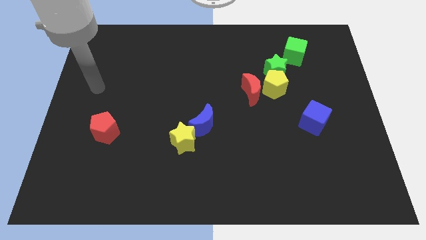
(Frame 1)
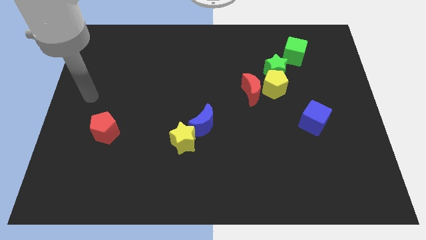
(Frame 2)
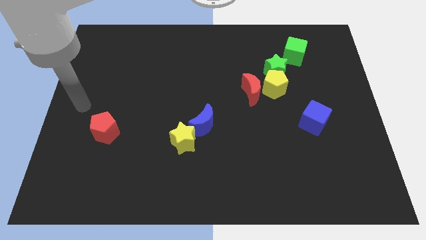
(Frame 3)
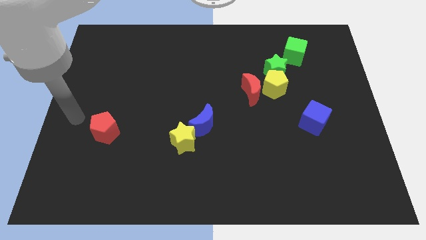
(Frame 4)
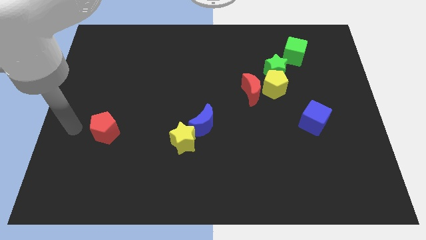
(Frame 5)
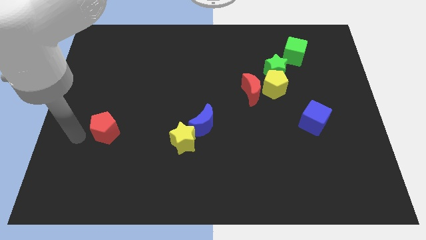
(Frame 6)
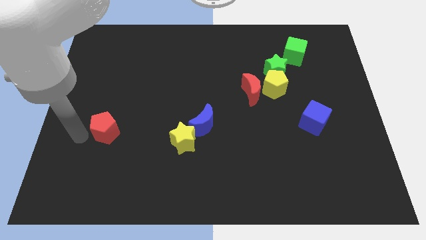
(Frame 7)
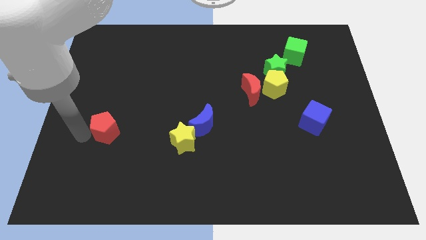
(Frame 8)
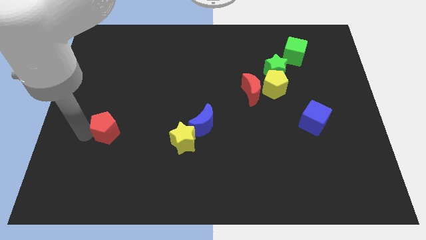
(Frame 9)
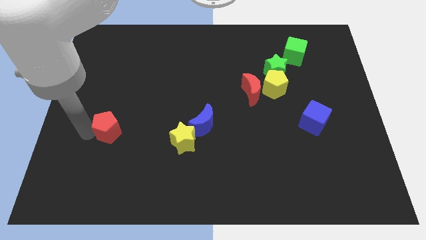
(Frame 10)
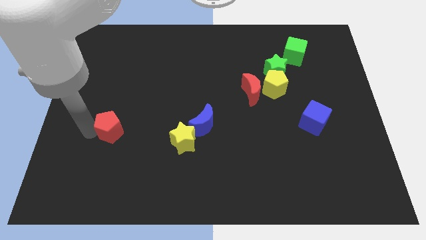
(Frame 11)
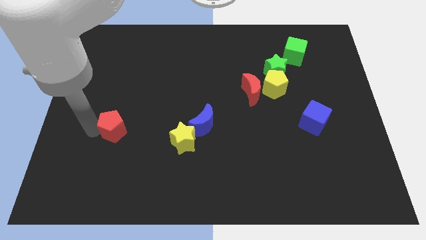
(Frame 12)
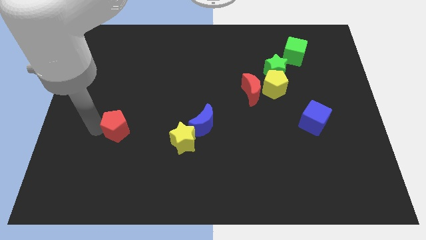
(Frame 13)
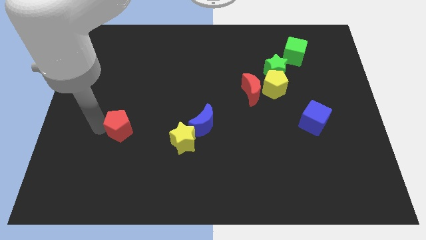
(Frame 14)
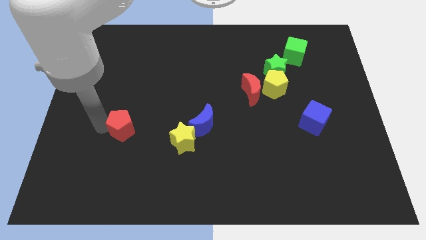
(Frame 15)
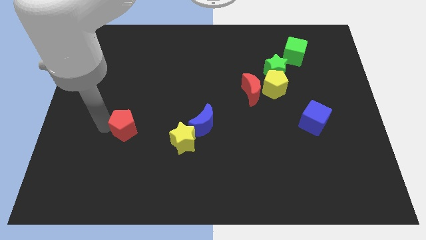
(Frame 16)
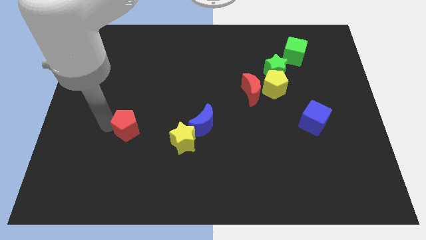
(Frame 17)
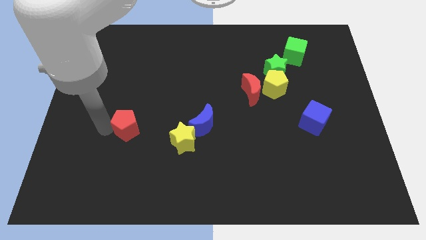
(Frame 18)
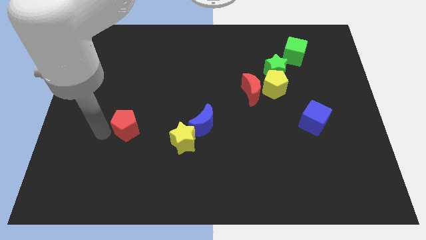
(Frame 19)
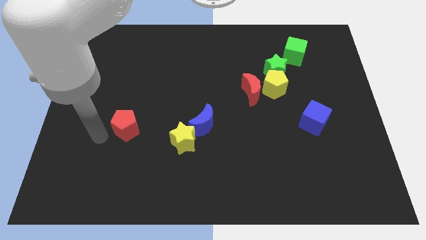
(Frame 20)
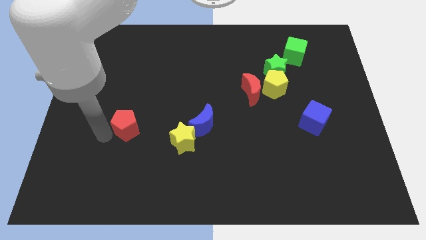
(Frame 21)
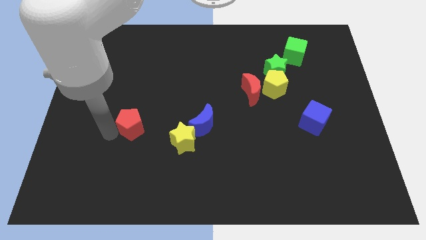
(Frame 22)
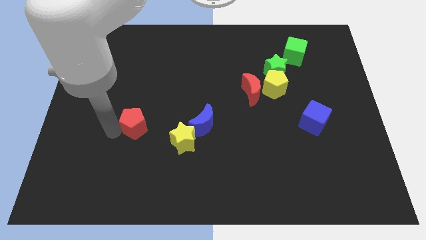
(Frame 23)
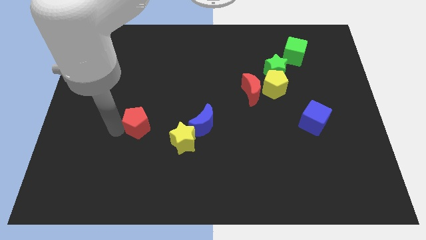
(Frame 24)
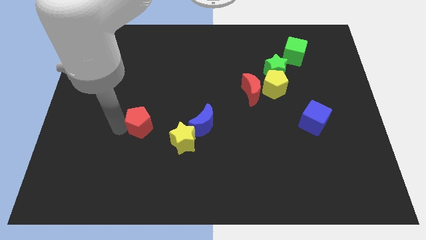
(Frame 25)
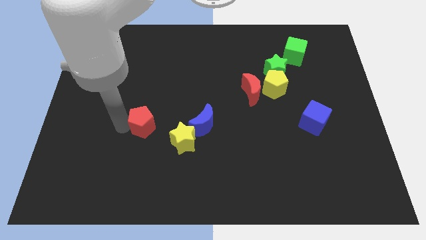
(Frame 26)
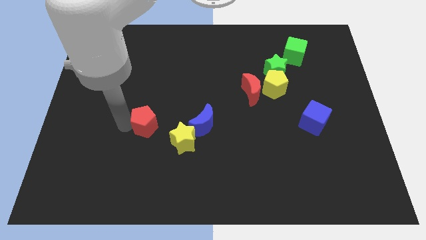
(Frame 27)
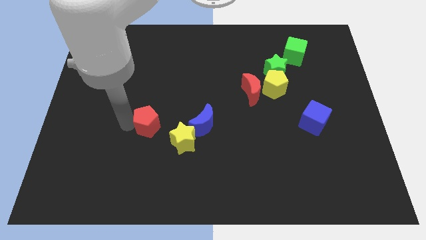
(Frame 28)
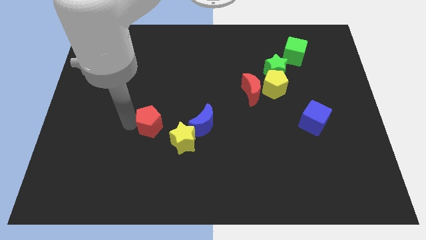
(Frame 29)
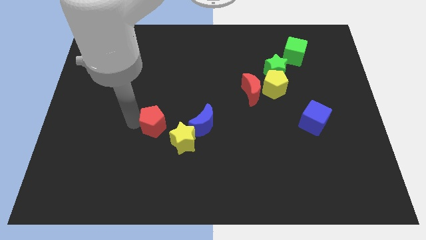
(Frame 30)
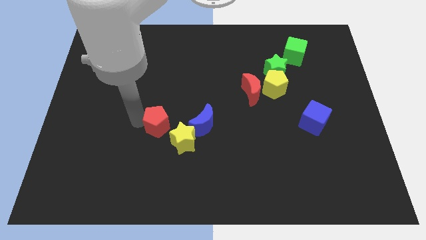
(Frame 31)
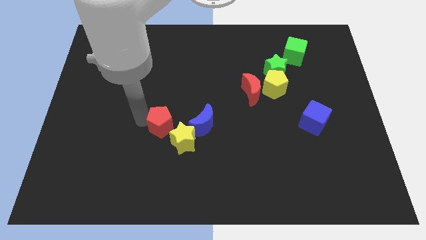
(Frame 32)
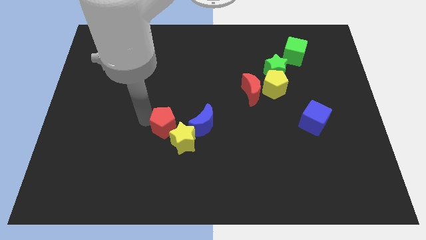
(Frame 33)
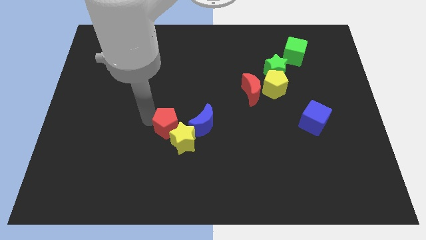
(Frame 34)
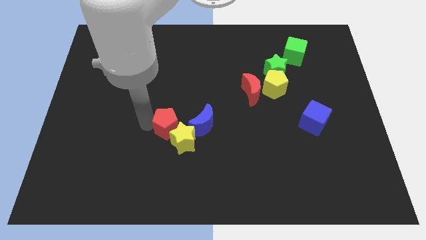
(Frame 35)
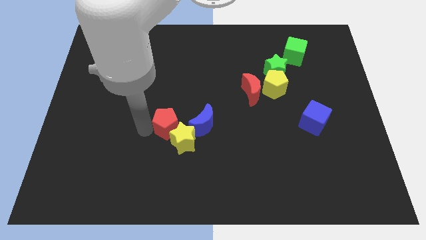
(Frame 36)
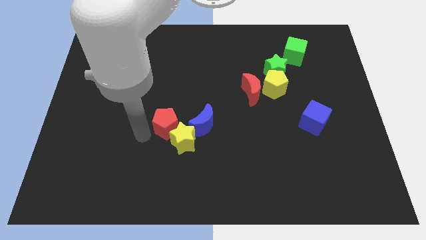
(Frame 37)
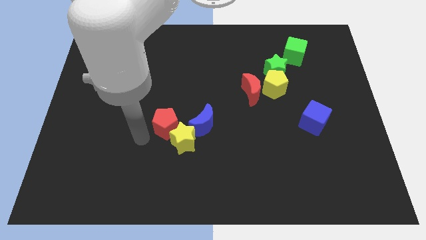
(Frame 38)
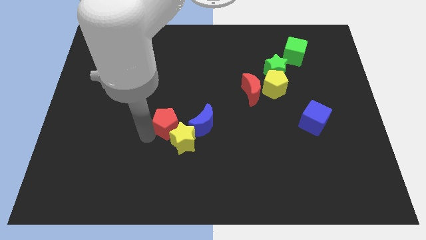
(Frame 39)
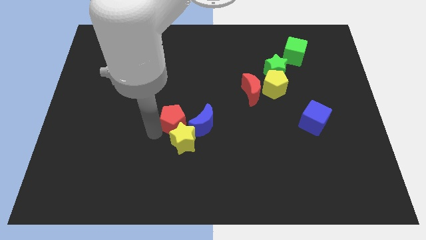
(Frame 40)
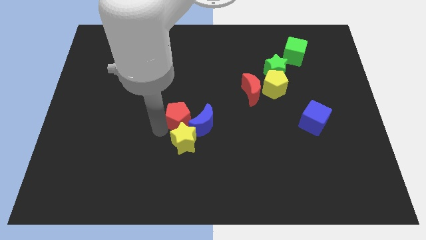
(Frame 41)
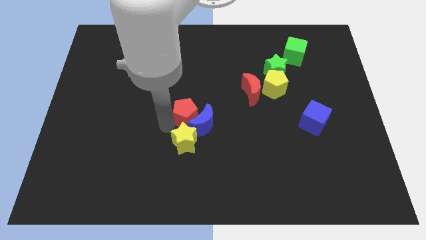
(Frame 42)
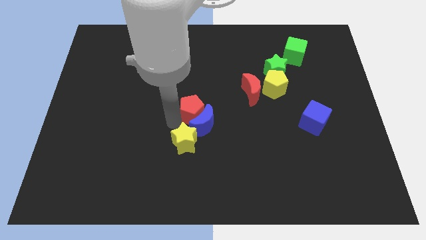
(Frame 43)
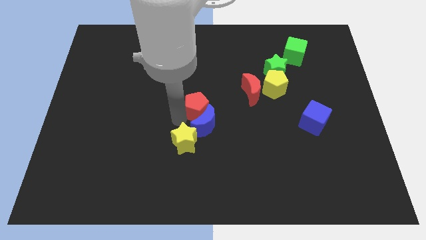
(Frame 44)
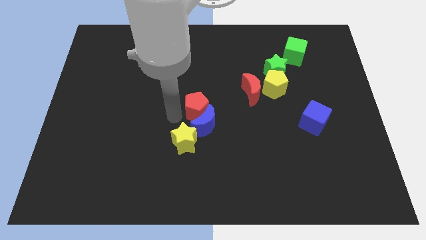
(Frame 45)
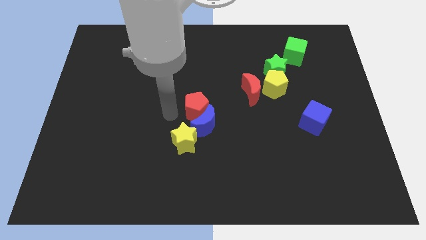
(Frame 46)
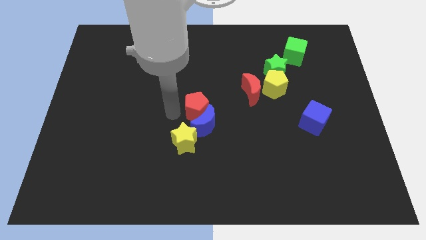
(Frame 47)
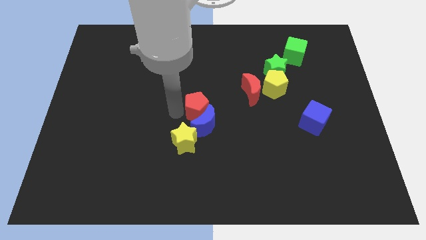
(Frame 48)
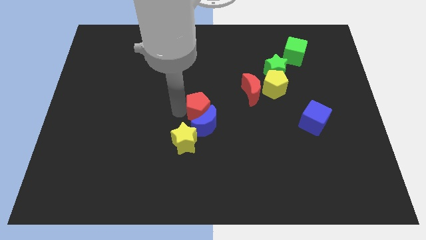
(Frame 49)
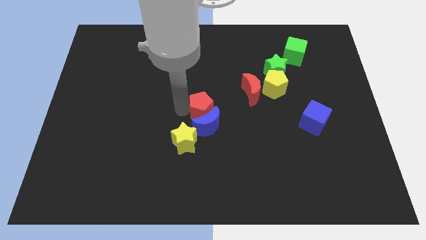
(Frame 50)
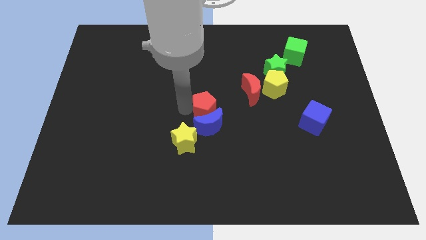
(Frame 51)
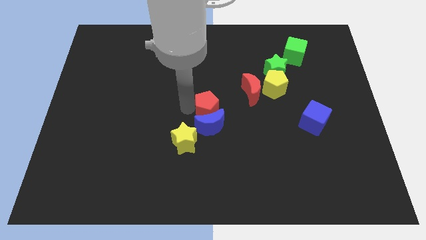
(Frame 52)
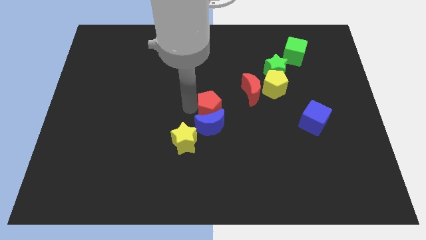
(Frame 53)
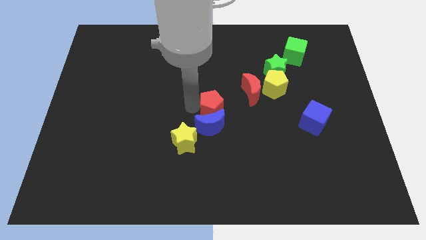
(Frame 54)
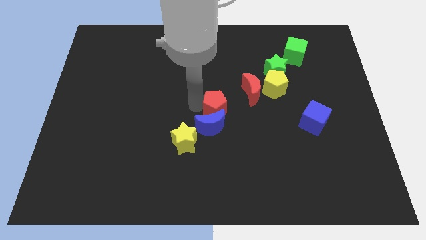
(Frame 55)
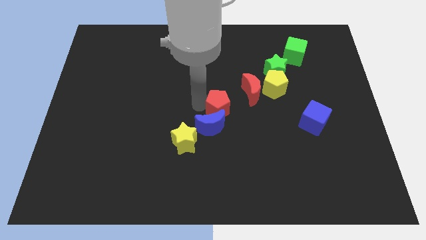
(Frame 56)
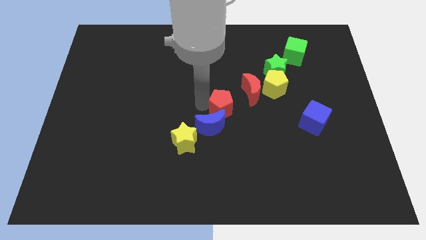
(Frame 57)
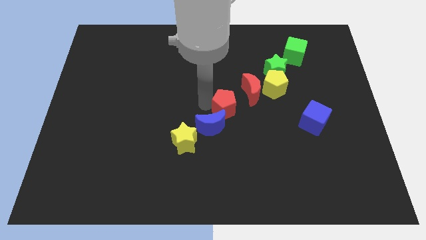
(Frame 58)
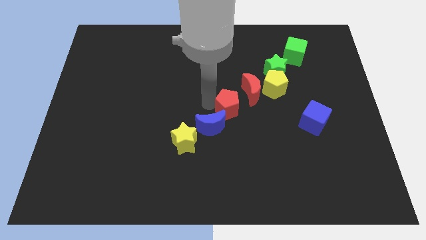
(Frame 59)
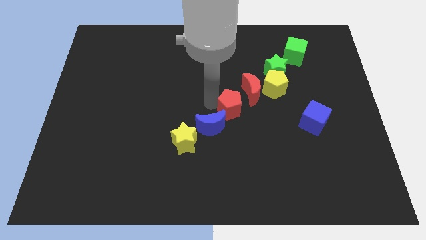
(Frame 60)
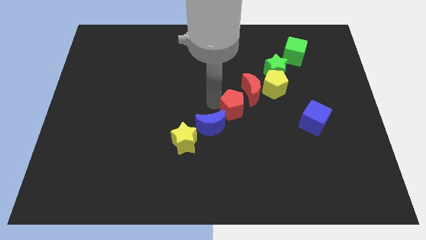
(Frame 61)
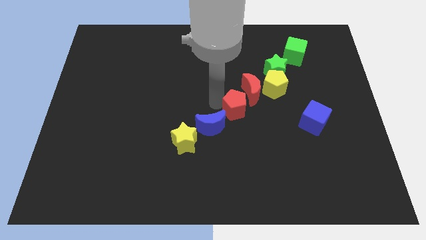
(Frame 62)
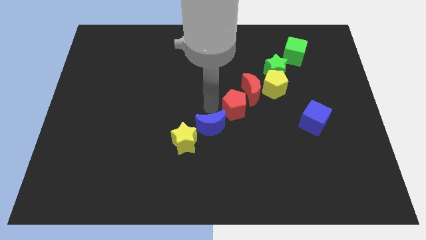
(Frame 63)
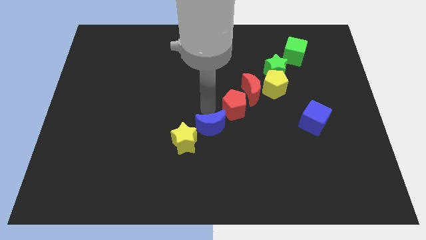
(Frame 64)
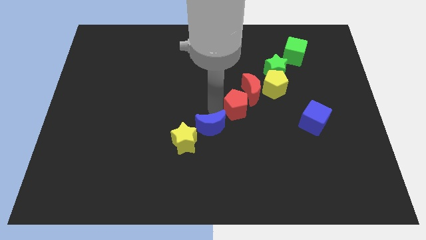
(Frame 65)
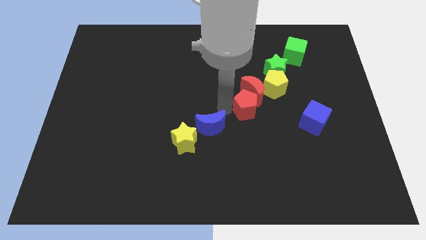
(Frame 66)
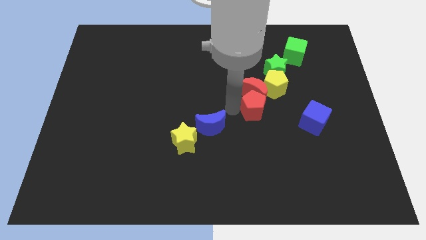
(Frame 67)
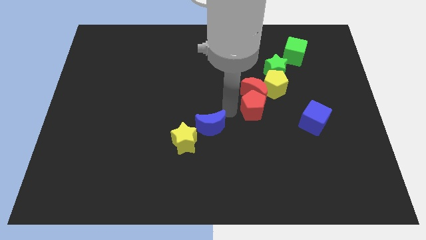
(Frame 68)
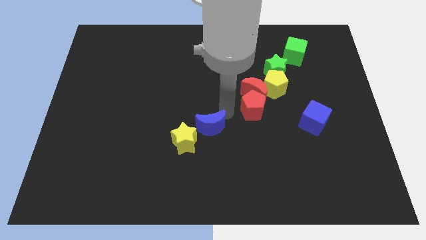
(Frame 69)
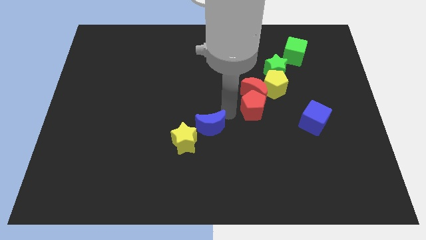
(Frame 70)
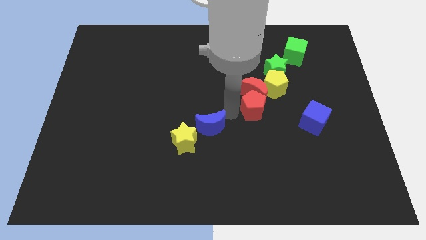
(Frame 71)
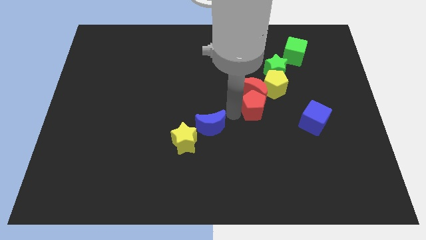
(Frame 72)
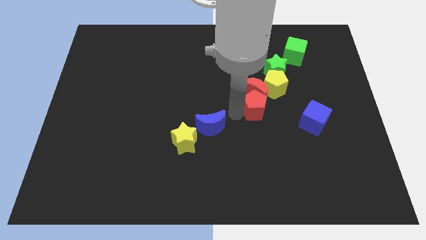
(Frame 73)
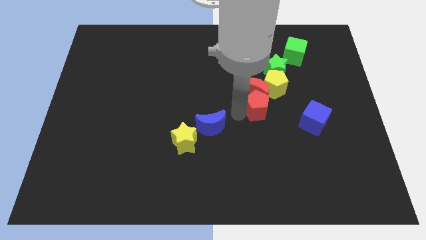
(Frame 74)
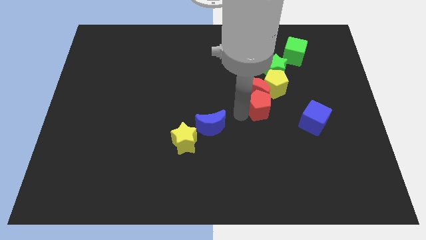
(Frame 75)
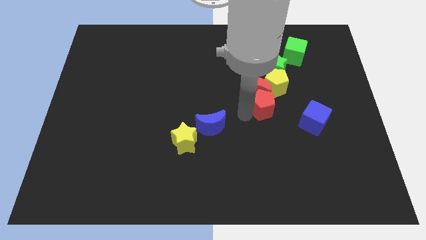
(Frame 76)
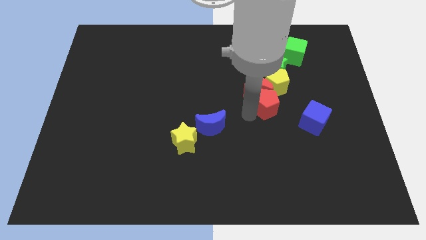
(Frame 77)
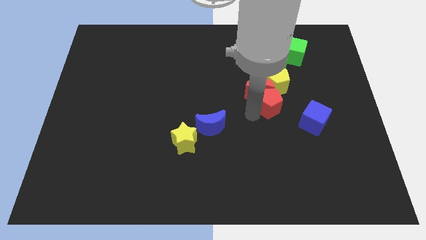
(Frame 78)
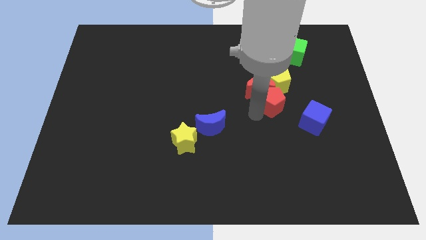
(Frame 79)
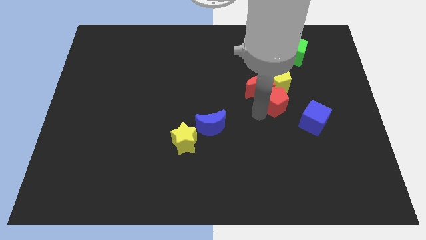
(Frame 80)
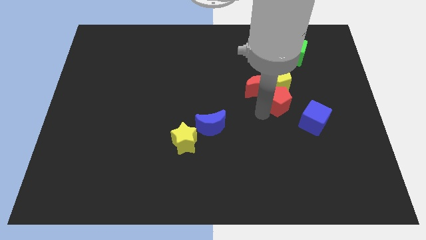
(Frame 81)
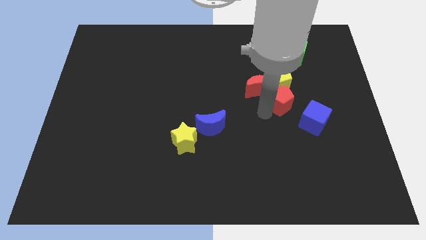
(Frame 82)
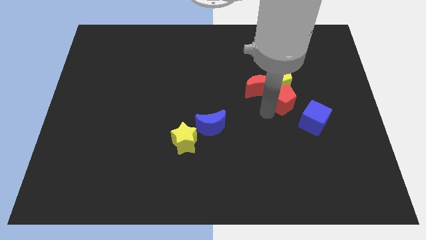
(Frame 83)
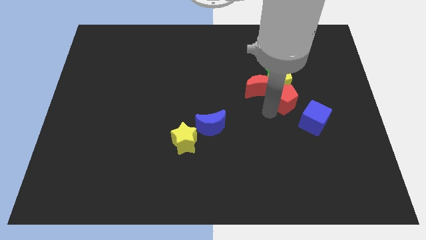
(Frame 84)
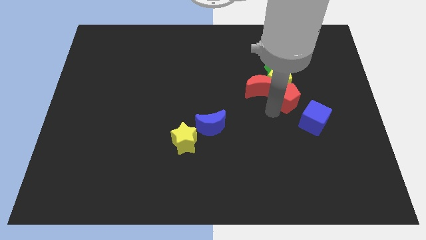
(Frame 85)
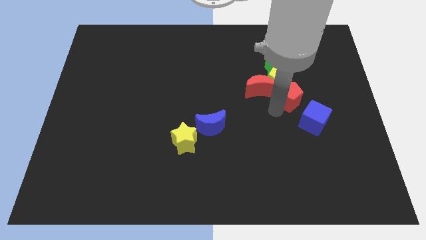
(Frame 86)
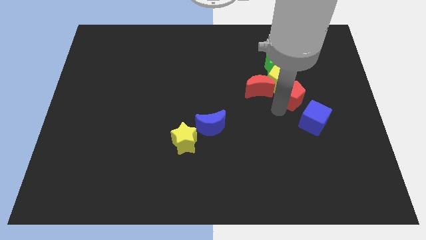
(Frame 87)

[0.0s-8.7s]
slide the red pentagon to the bottom side of the green cube
